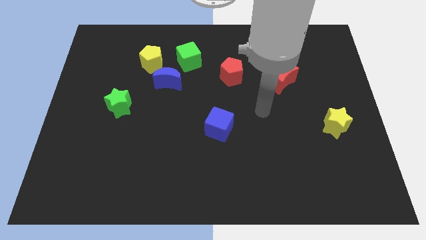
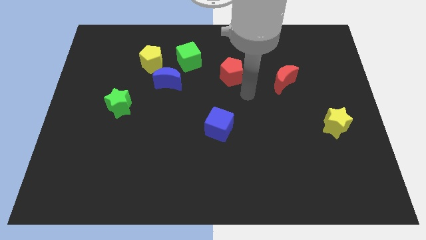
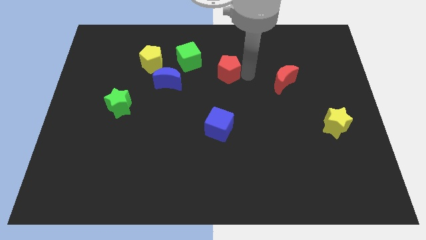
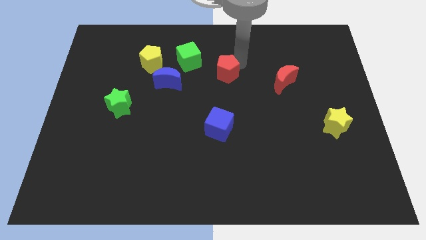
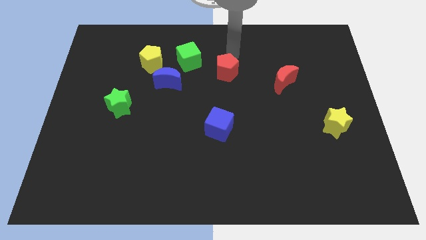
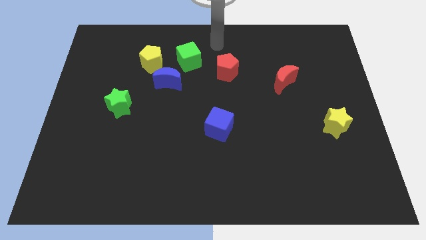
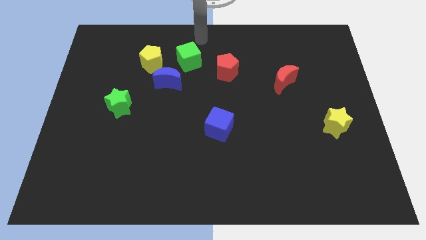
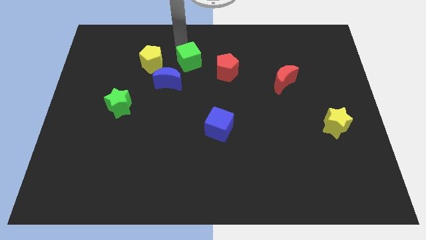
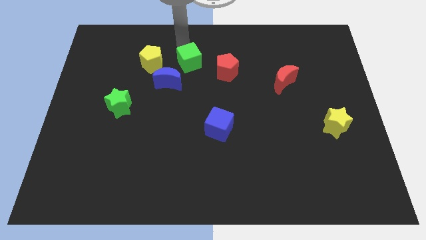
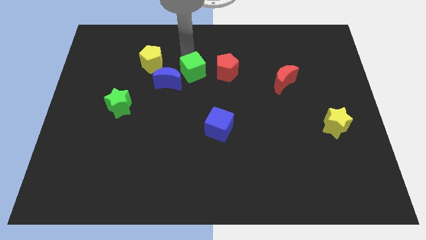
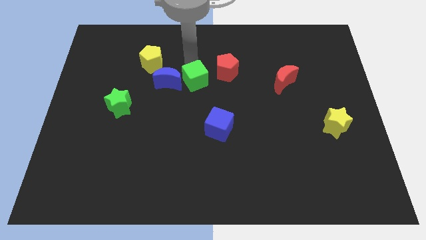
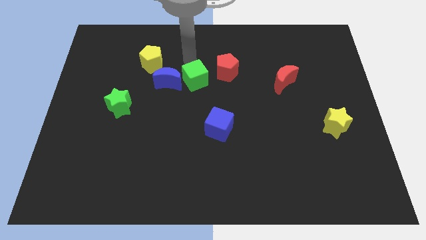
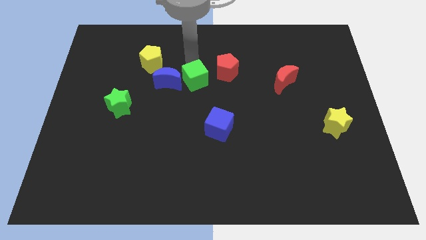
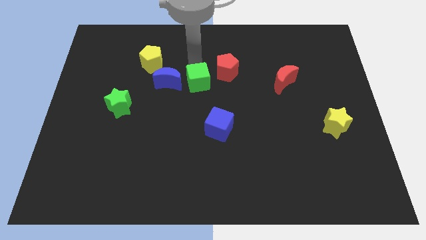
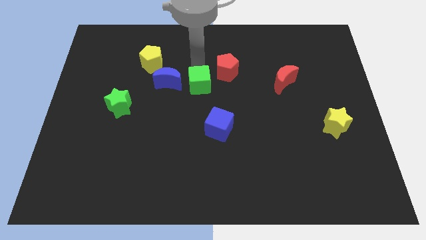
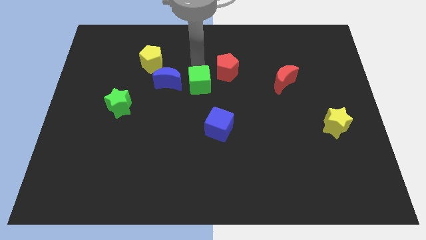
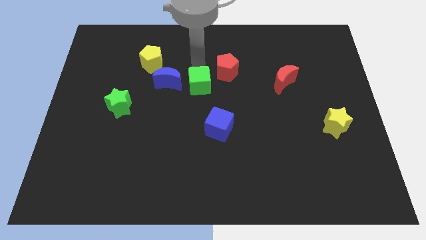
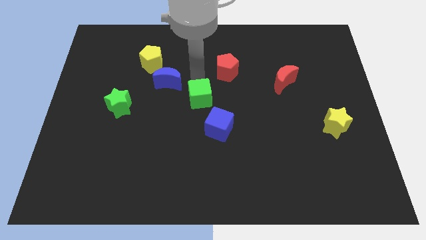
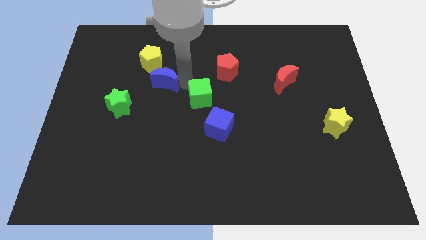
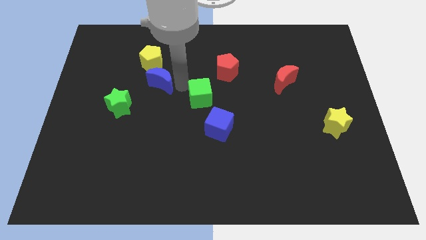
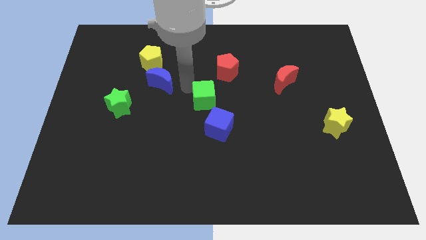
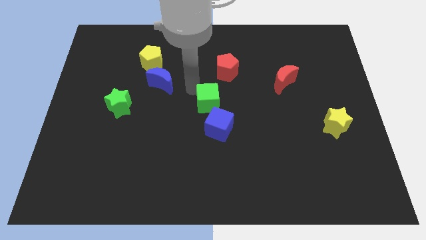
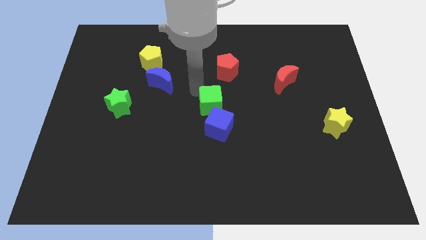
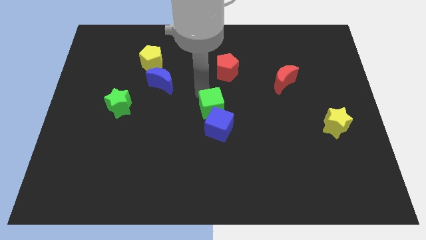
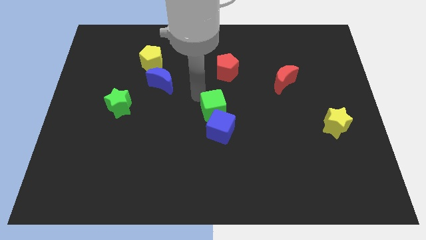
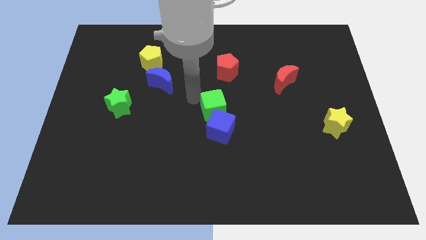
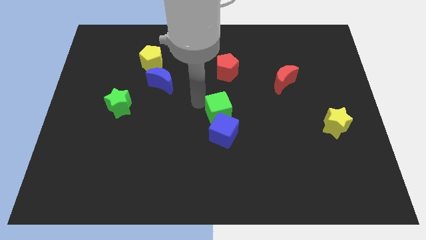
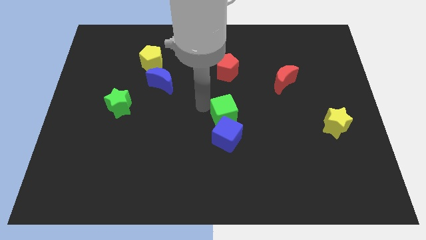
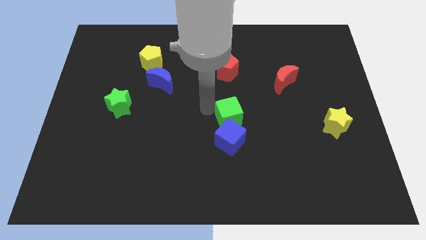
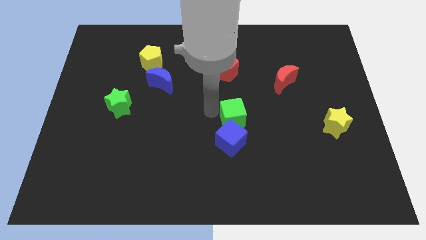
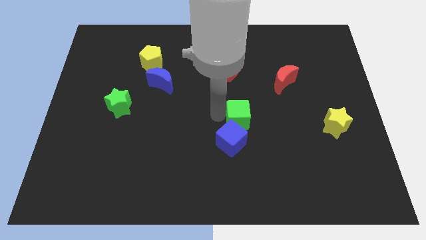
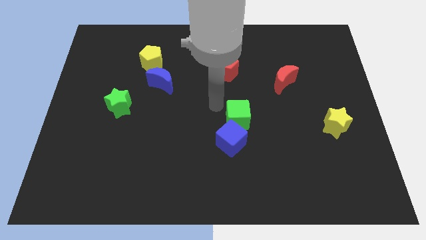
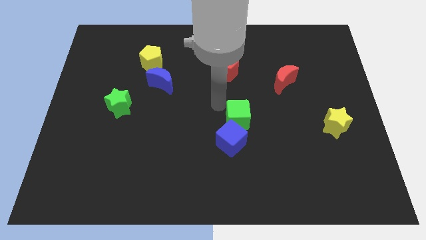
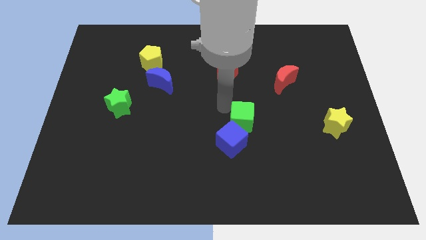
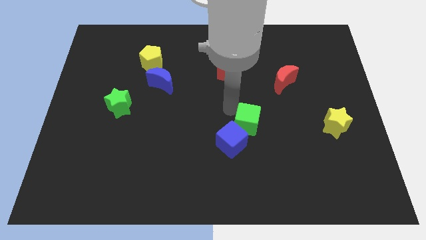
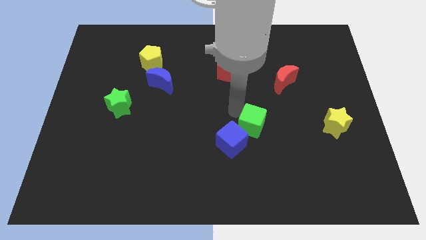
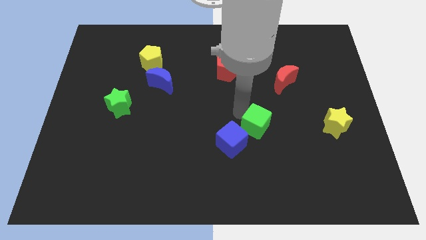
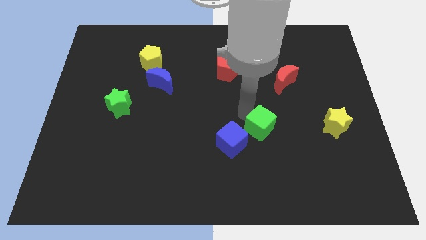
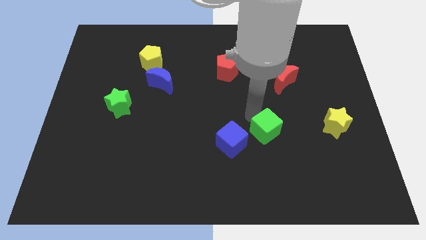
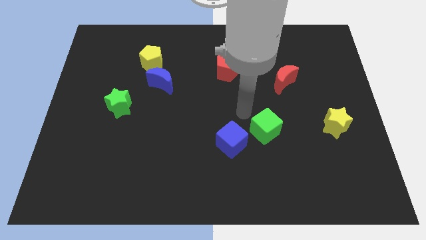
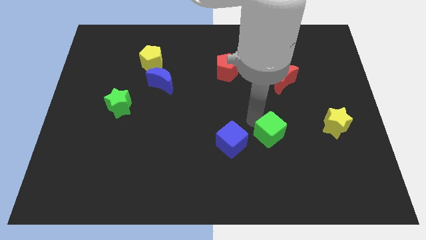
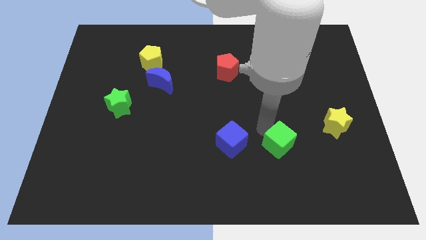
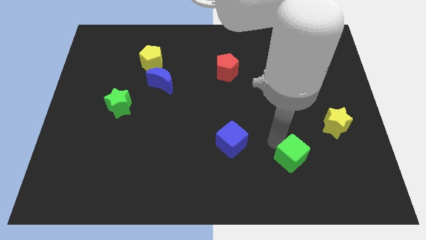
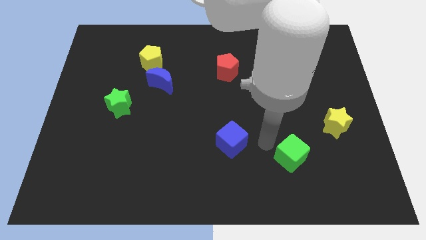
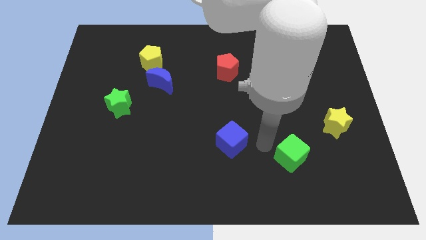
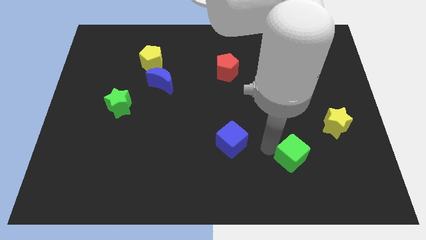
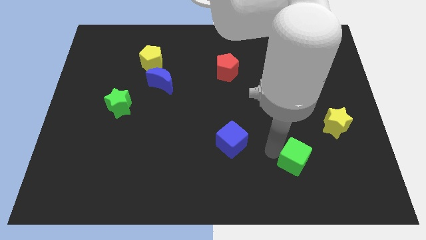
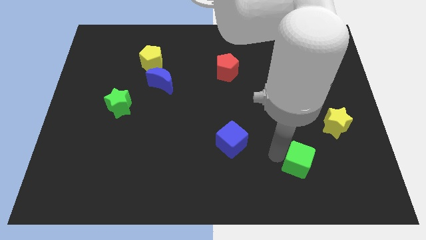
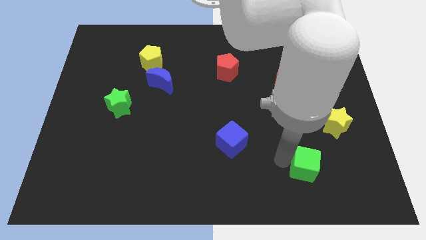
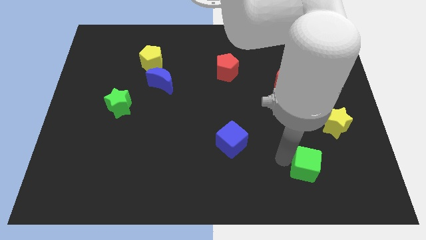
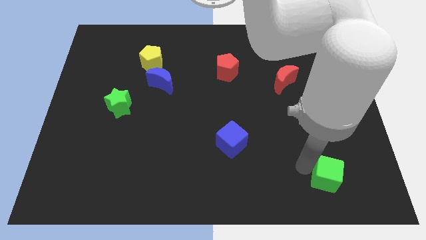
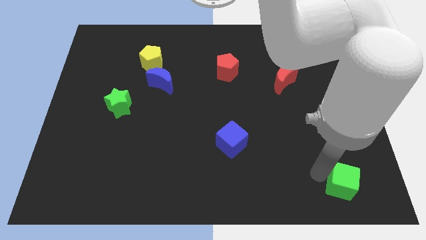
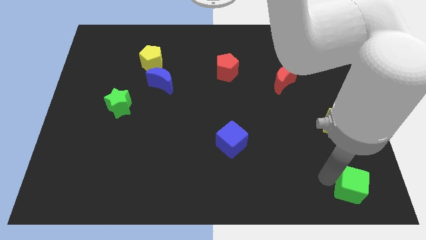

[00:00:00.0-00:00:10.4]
put the green cube to the bottom right corner

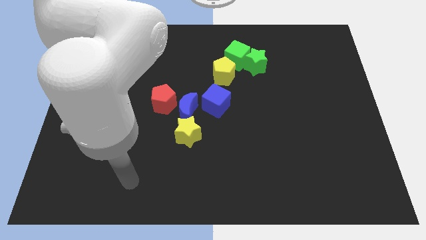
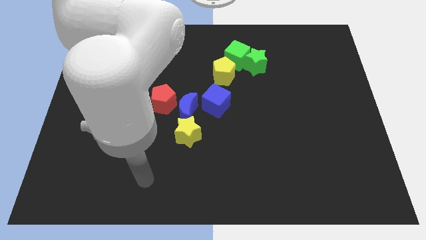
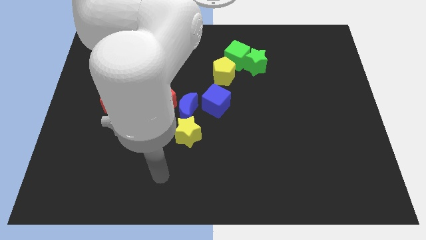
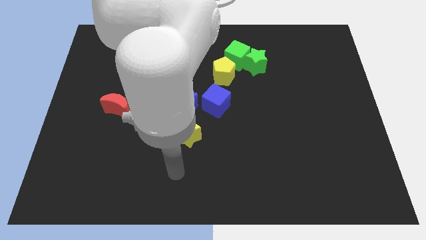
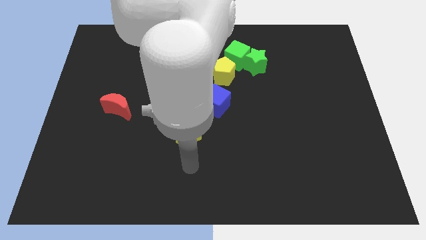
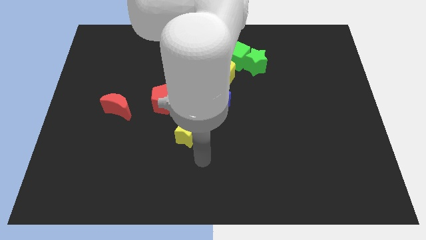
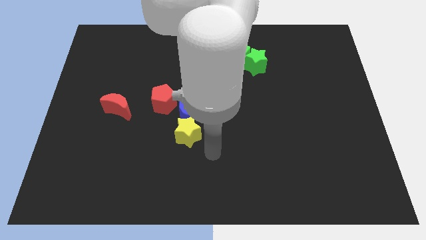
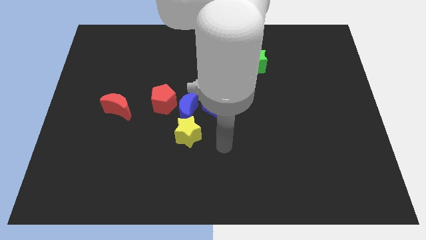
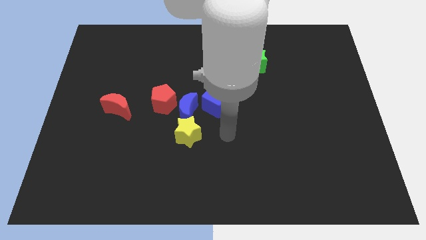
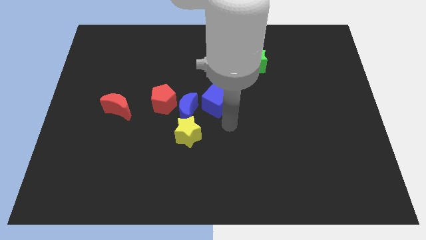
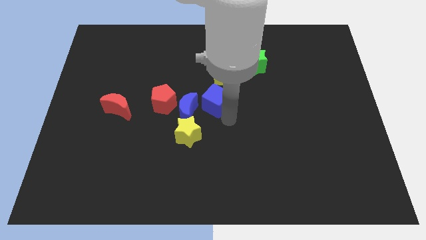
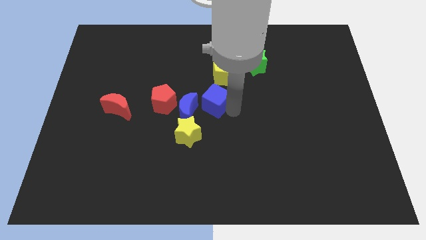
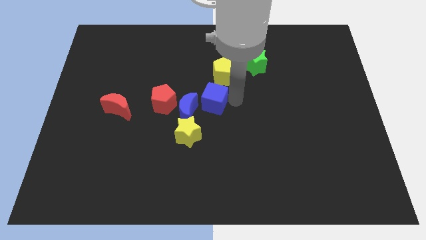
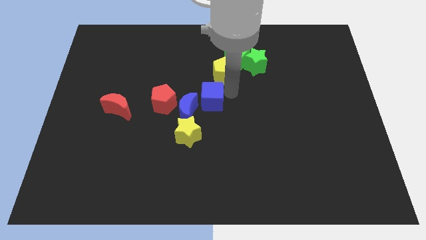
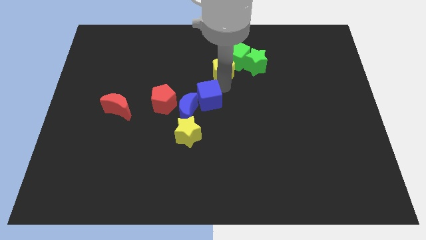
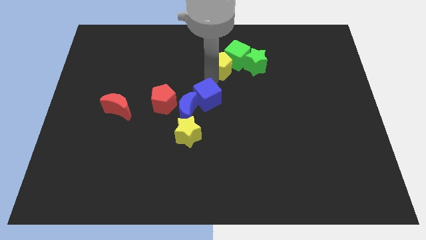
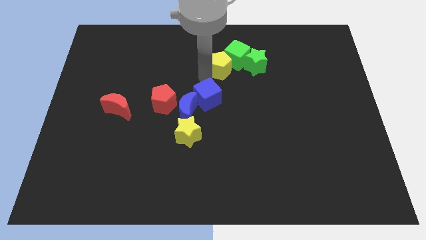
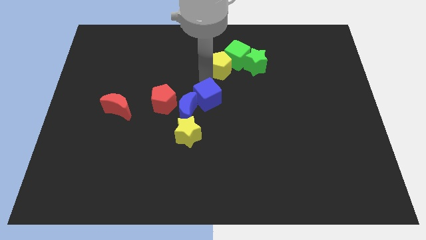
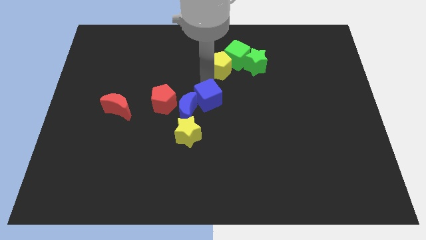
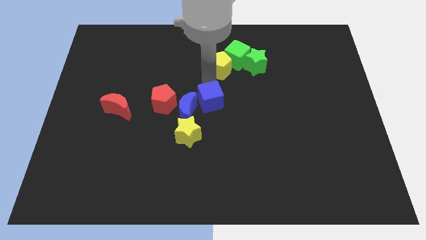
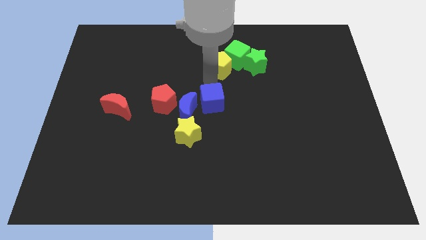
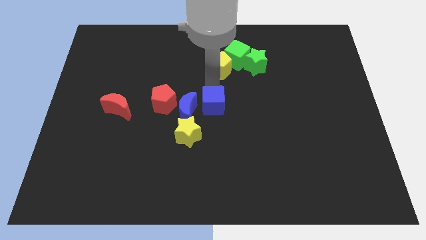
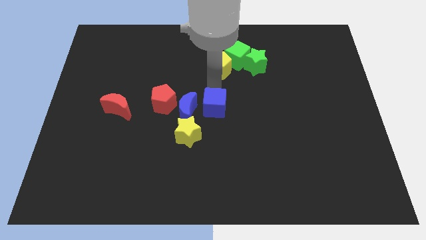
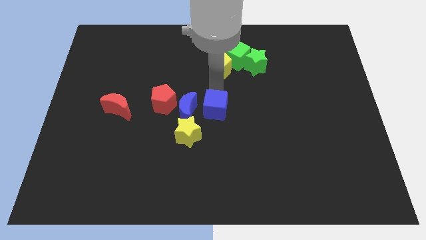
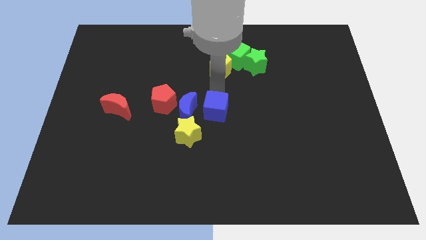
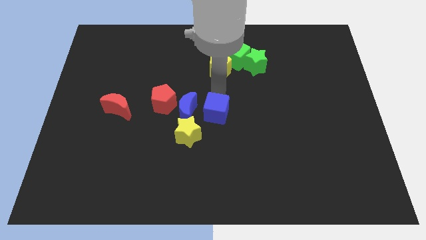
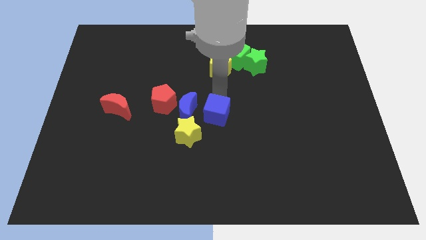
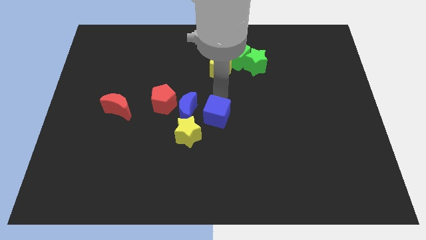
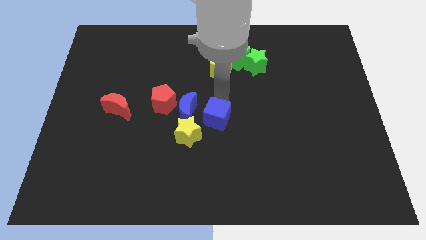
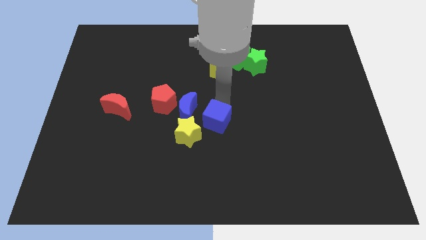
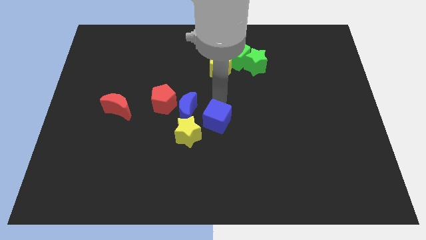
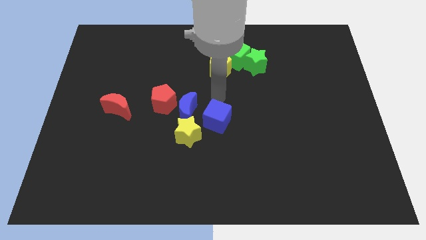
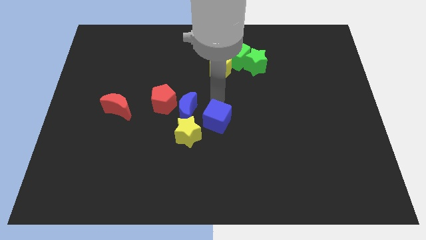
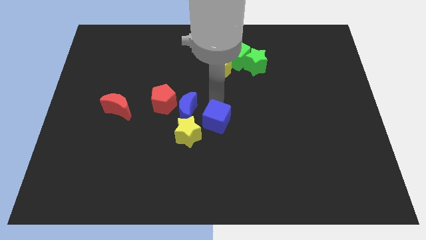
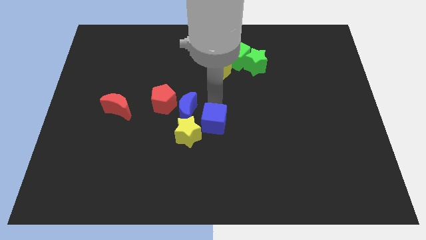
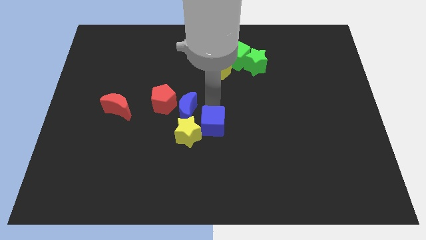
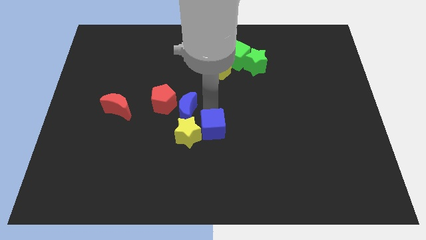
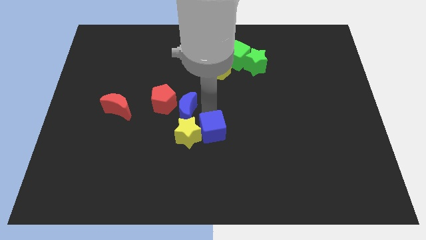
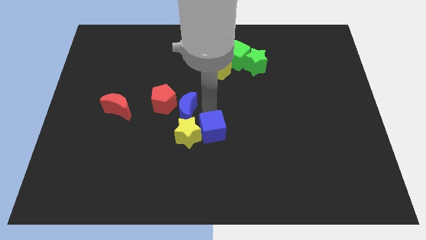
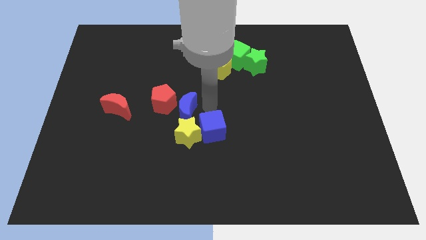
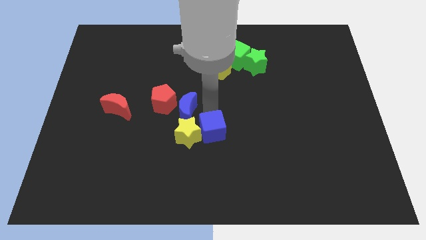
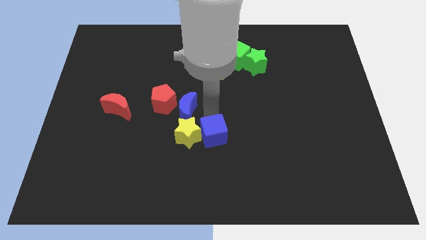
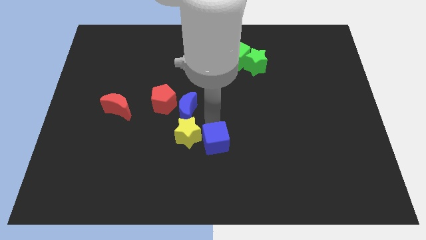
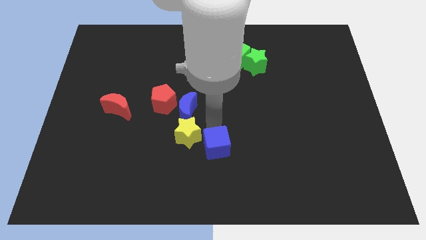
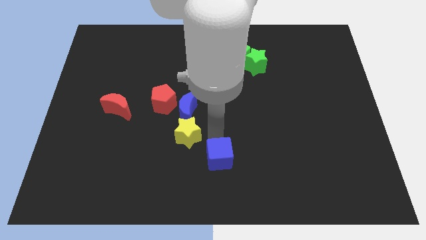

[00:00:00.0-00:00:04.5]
push the blue cube to the bottom side
